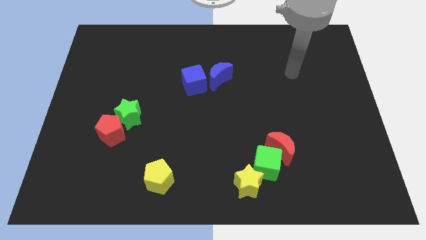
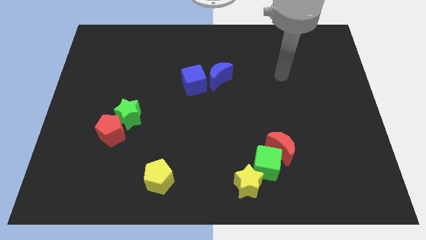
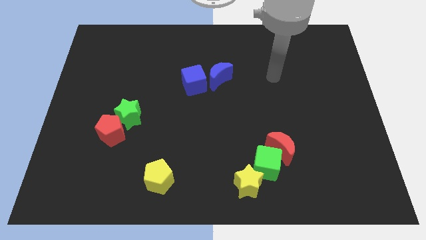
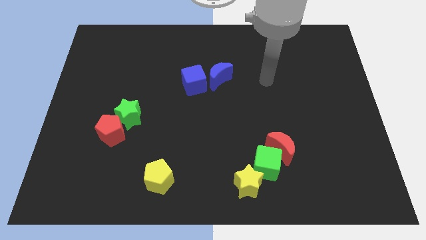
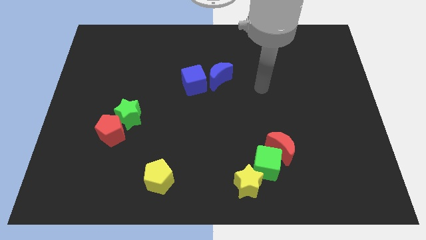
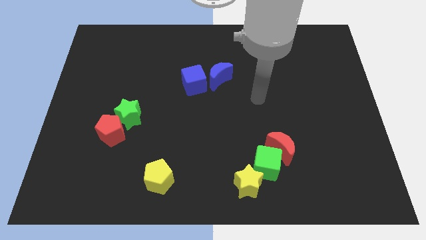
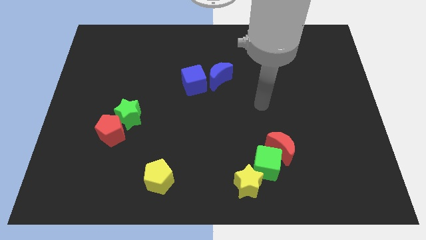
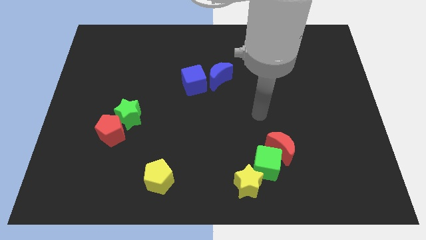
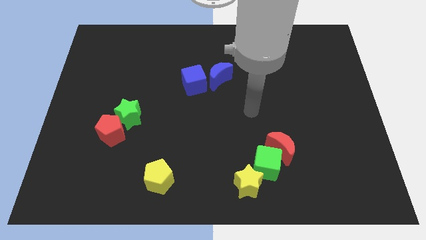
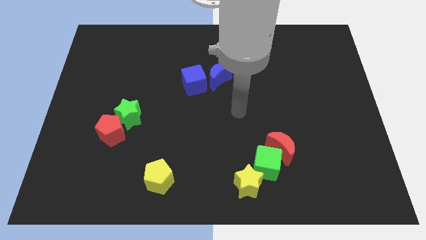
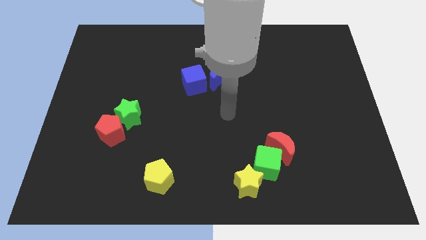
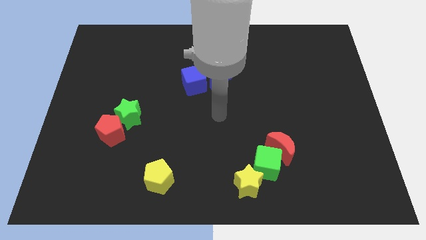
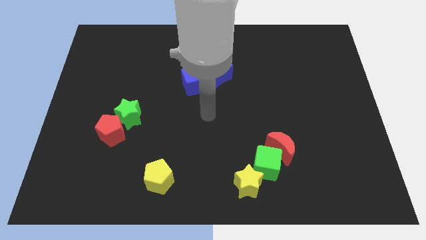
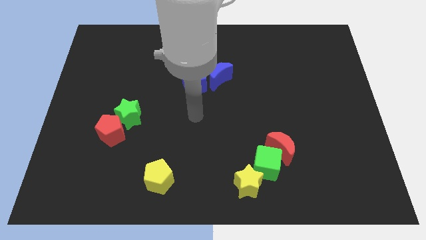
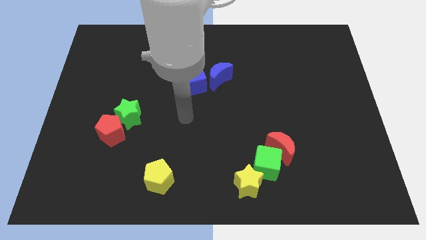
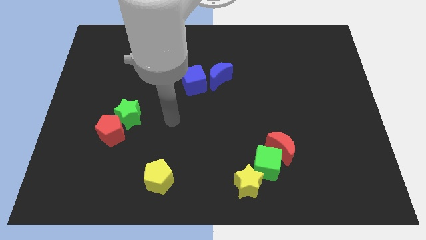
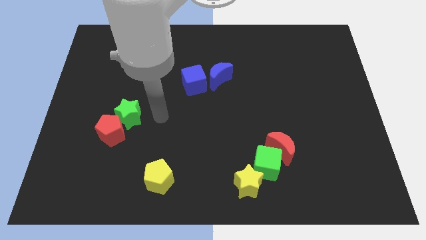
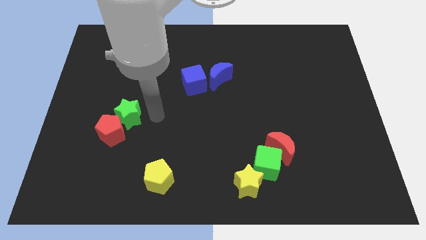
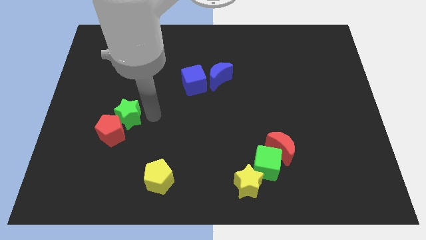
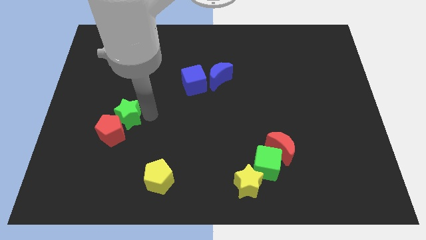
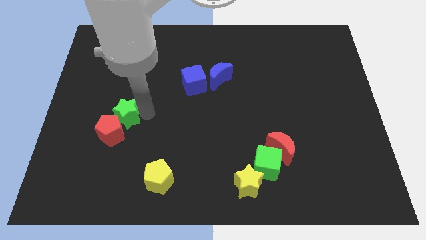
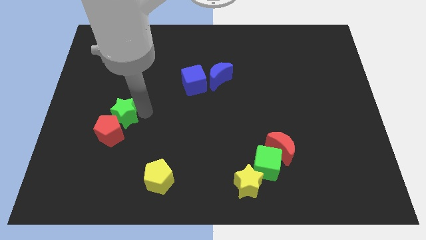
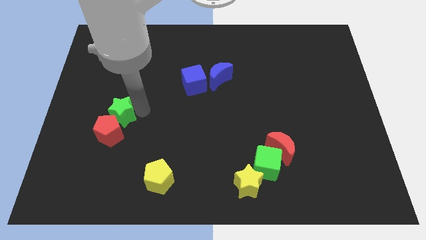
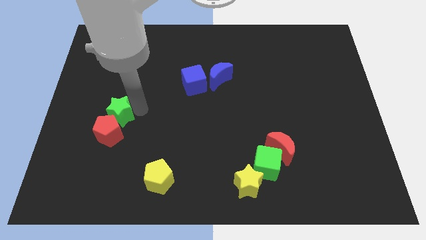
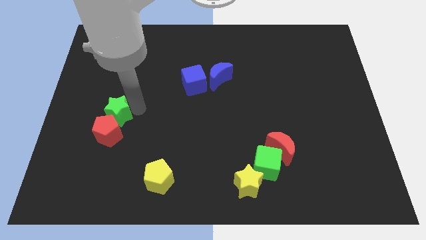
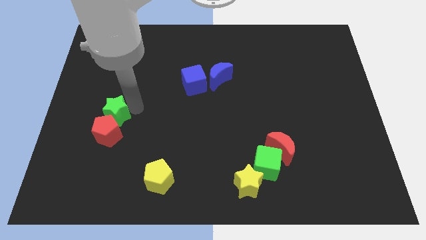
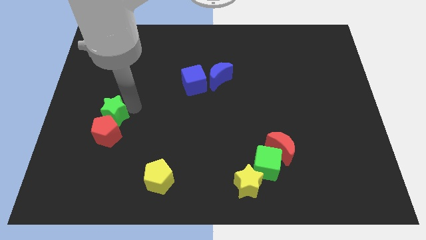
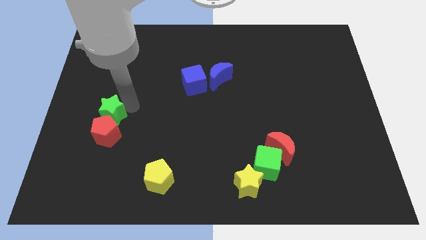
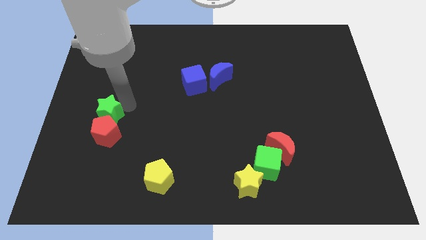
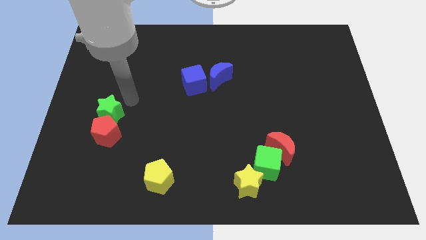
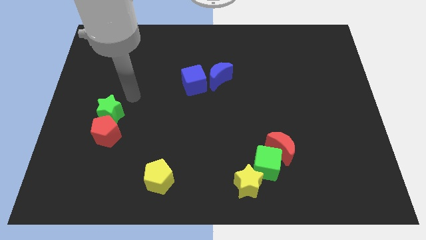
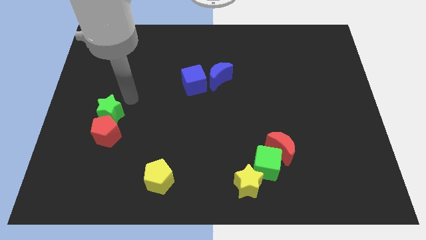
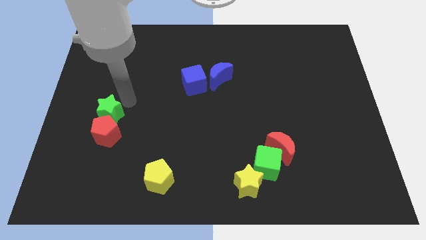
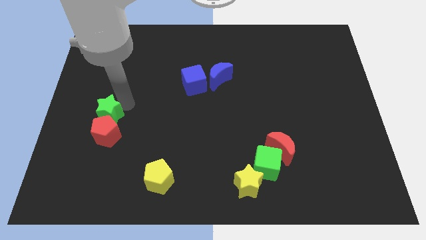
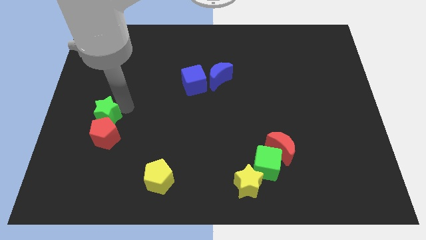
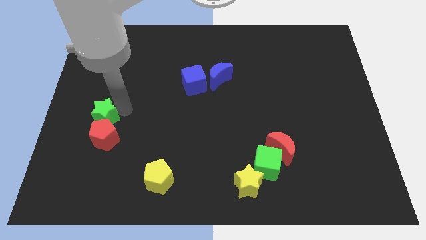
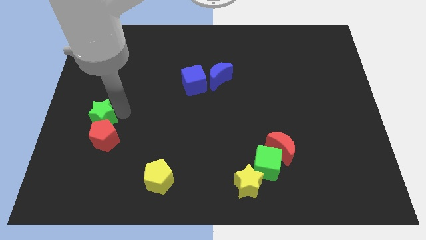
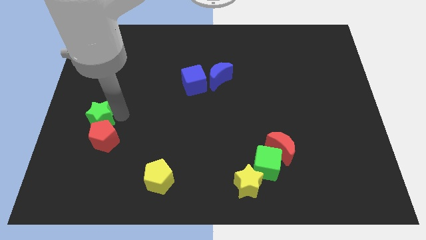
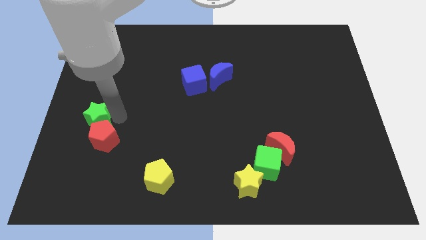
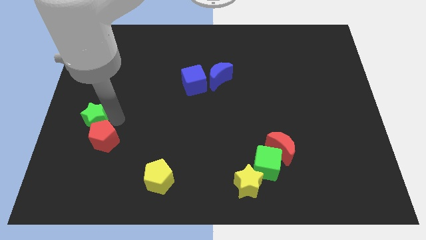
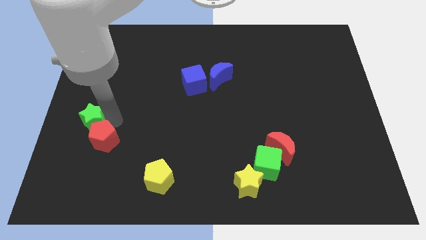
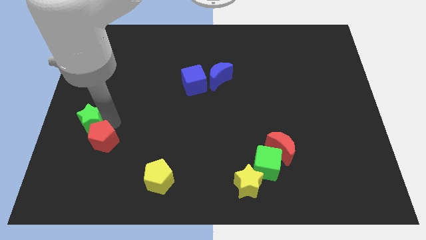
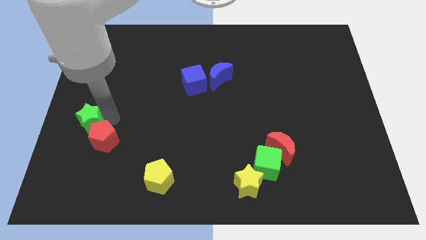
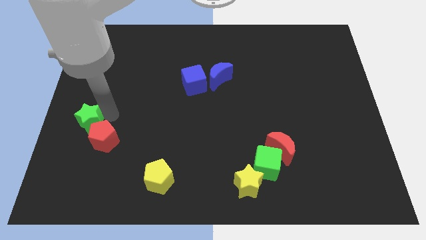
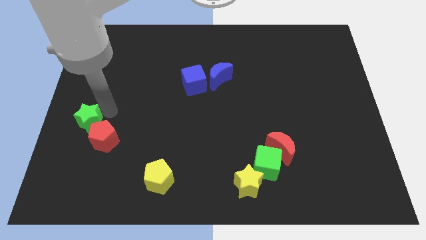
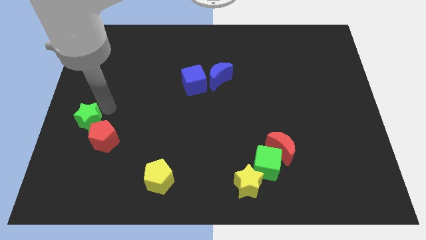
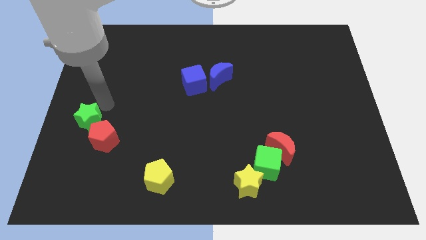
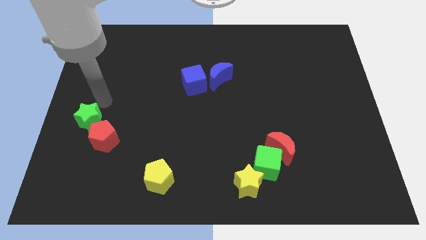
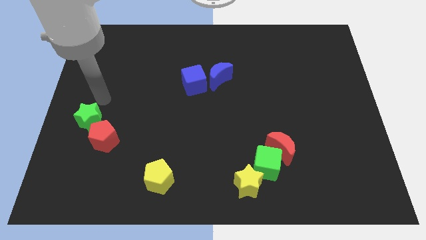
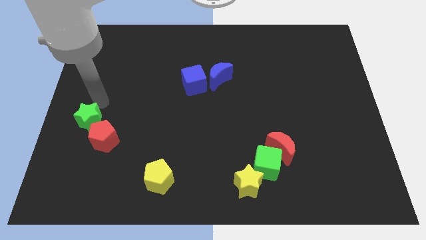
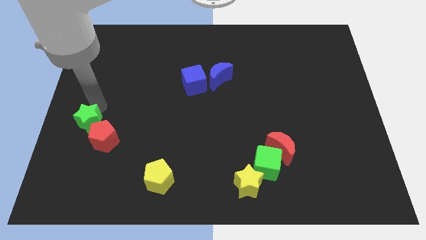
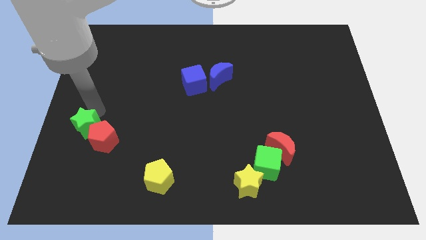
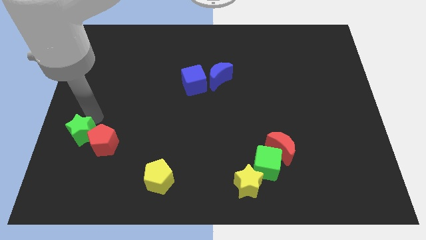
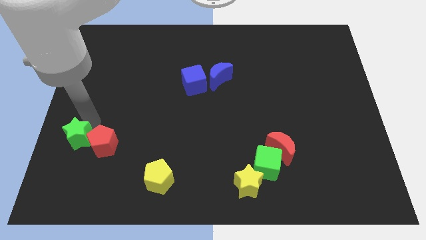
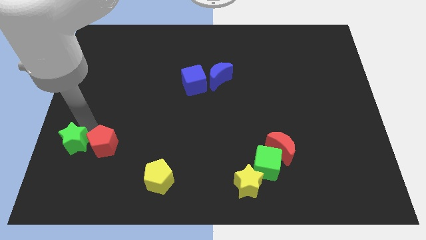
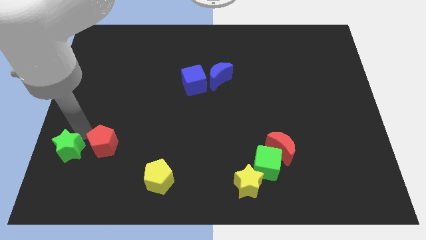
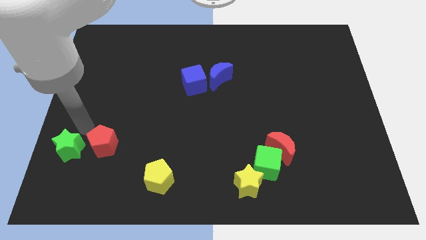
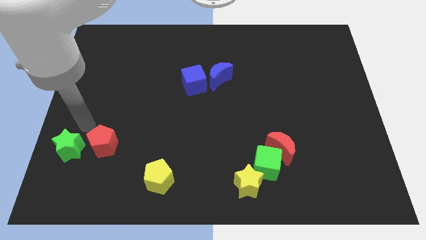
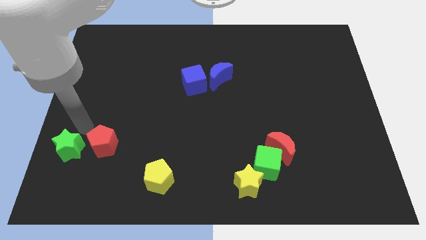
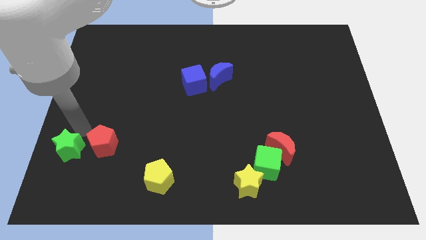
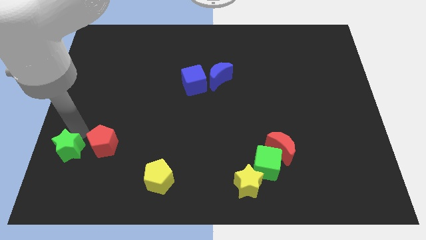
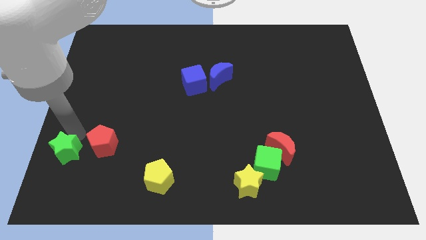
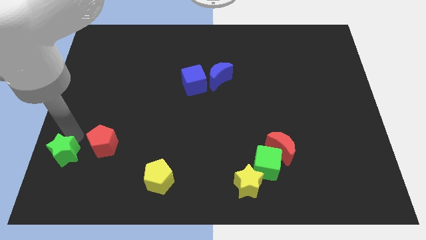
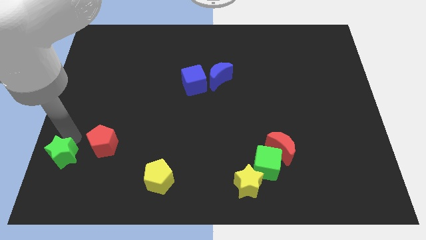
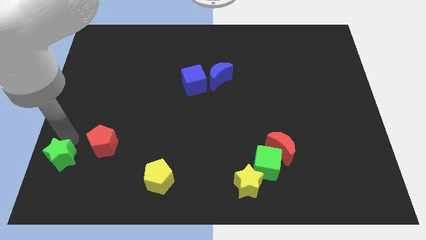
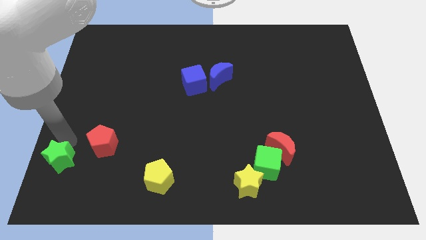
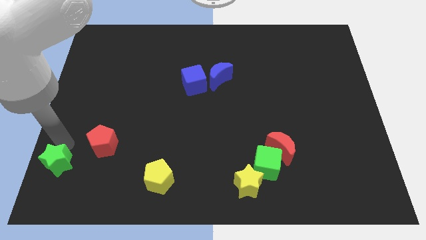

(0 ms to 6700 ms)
move the green star to the bottom left of the board
